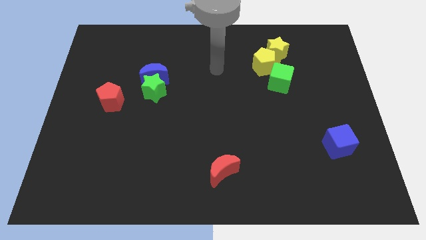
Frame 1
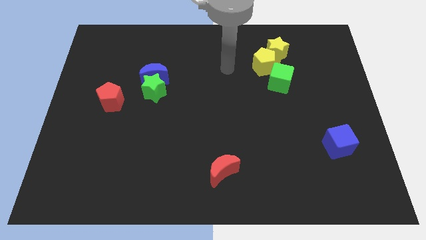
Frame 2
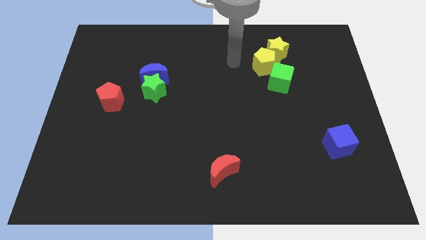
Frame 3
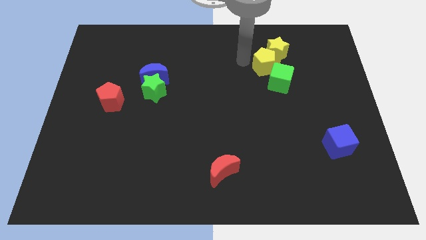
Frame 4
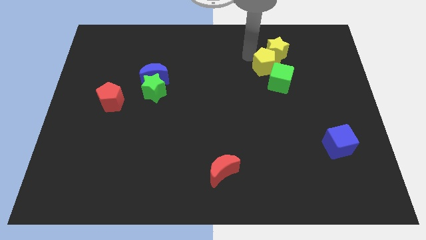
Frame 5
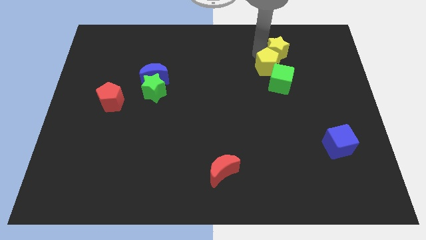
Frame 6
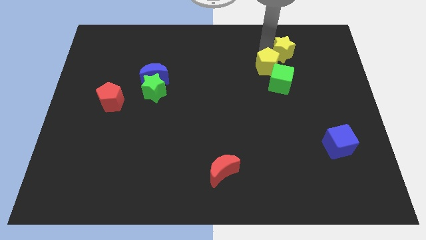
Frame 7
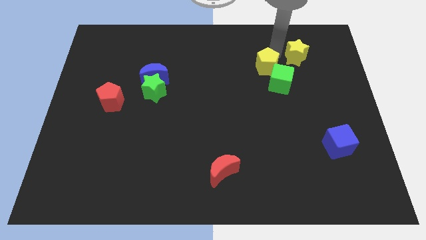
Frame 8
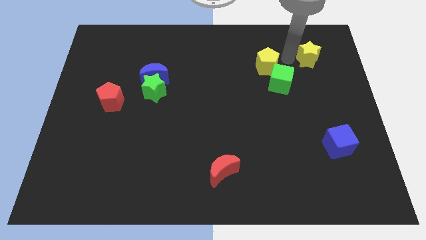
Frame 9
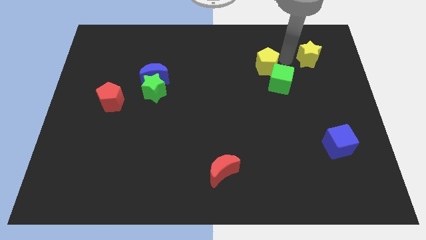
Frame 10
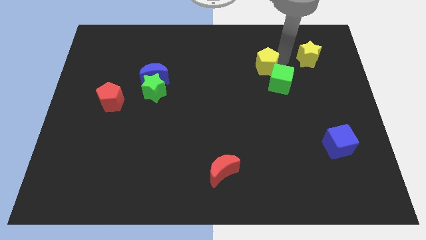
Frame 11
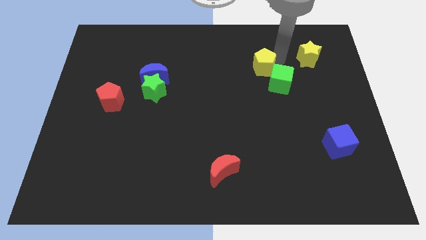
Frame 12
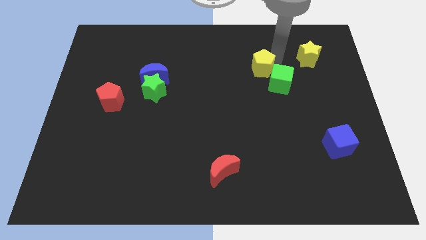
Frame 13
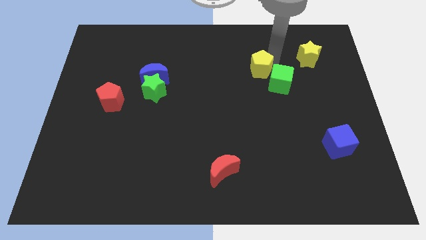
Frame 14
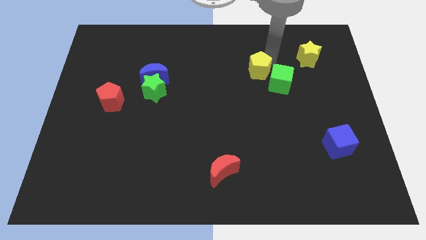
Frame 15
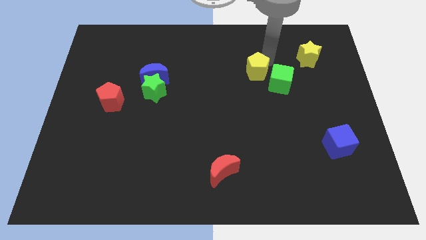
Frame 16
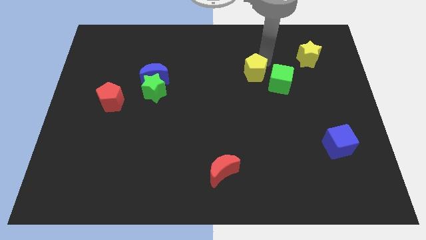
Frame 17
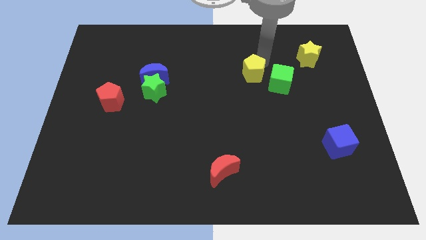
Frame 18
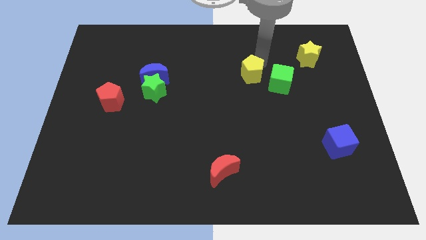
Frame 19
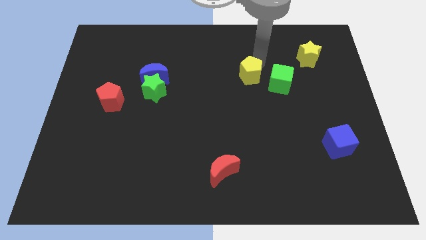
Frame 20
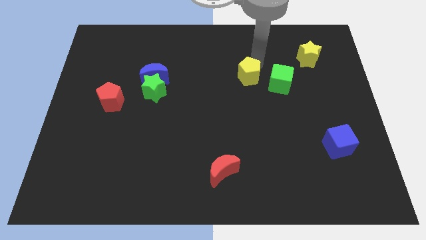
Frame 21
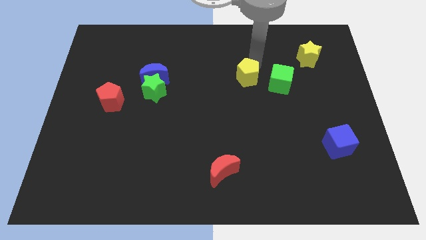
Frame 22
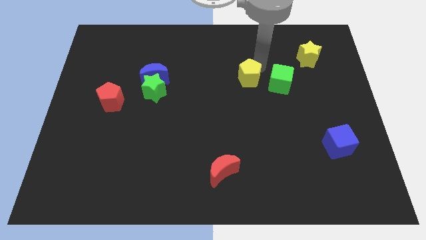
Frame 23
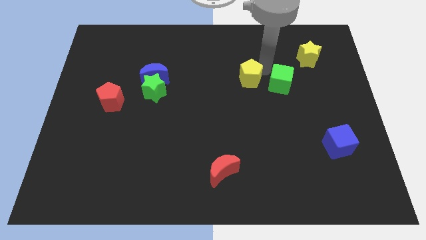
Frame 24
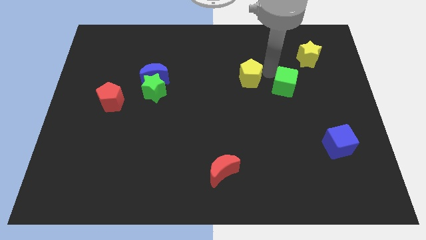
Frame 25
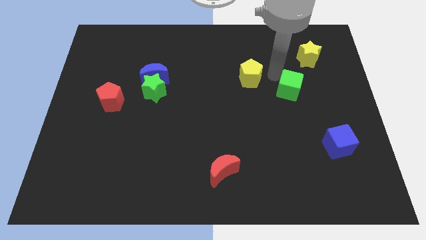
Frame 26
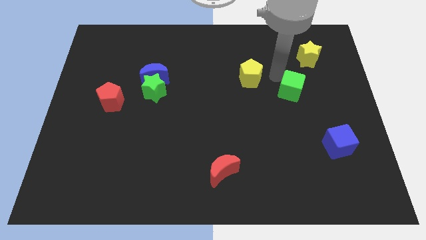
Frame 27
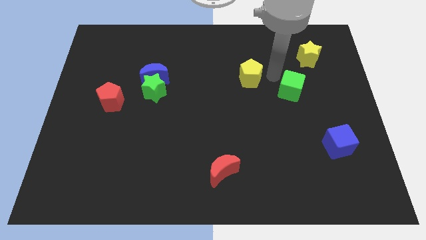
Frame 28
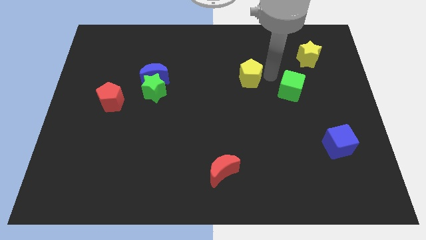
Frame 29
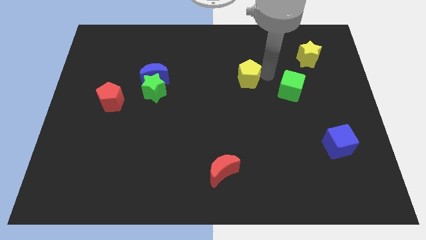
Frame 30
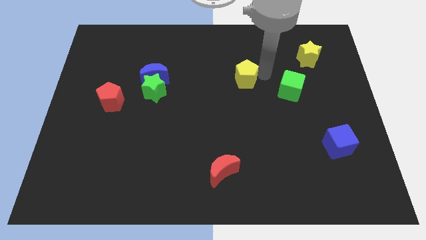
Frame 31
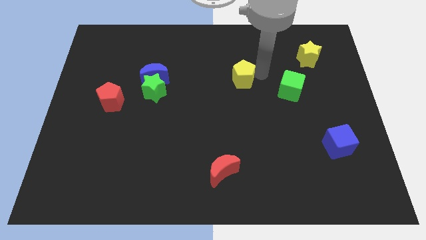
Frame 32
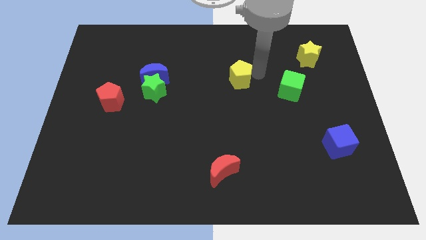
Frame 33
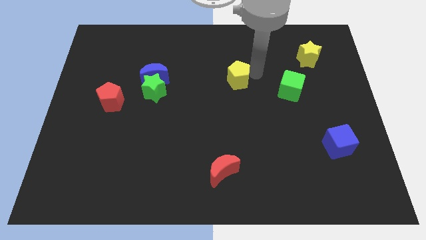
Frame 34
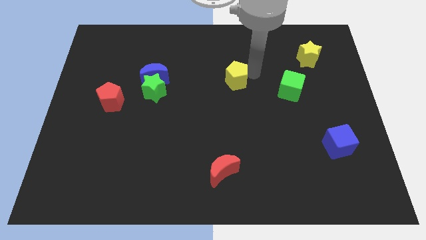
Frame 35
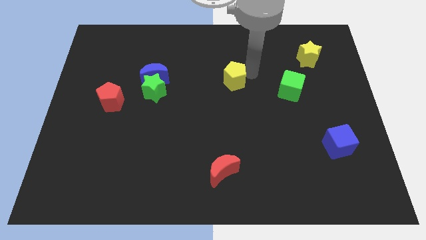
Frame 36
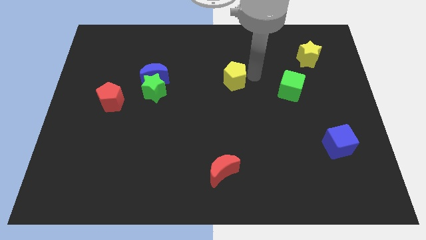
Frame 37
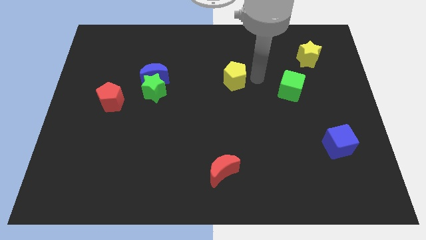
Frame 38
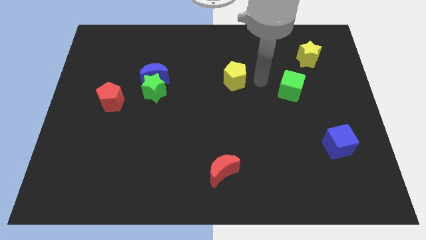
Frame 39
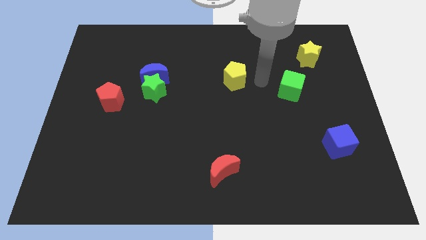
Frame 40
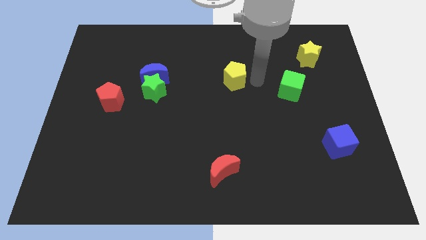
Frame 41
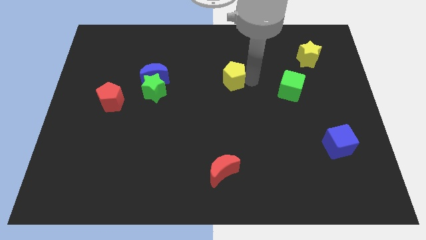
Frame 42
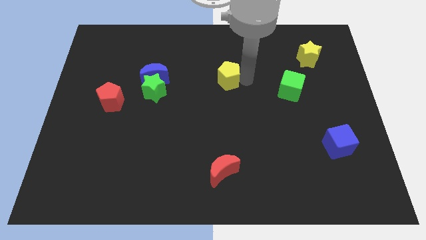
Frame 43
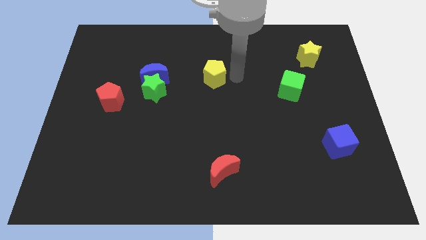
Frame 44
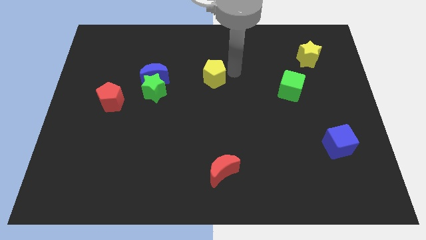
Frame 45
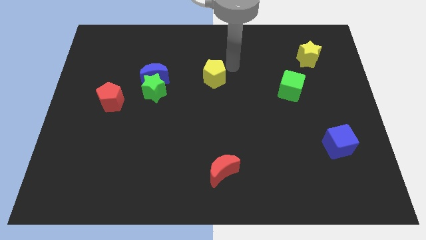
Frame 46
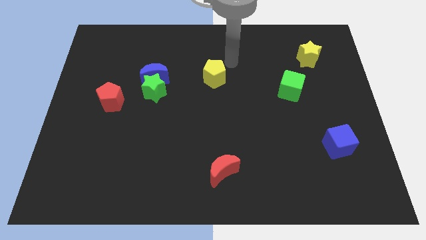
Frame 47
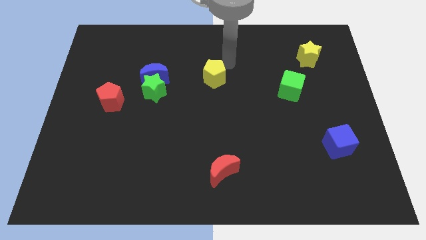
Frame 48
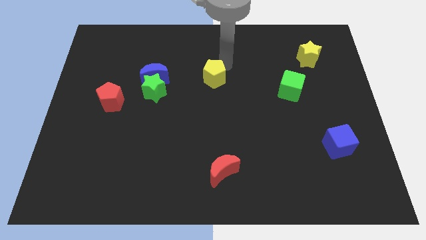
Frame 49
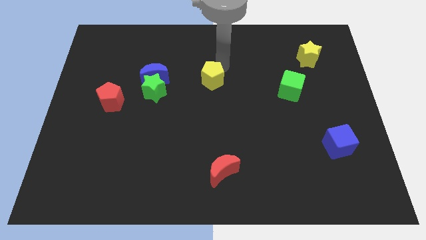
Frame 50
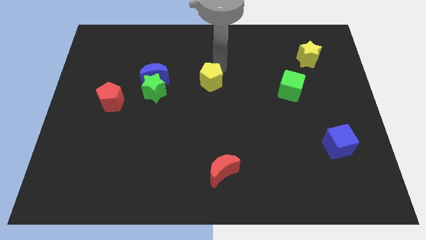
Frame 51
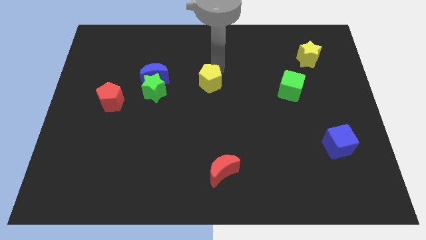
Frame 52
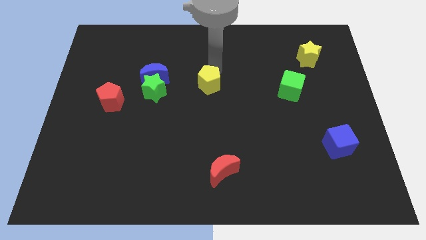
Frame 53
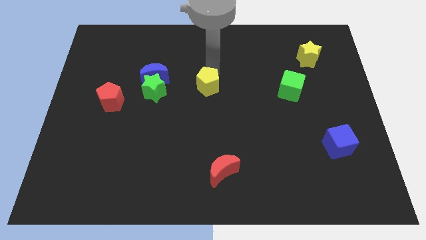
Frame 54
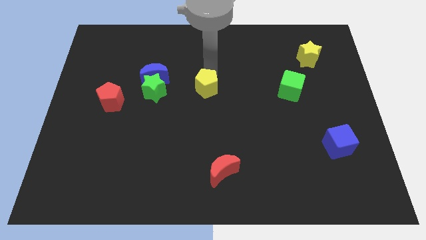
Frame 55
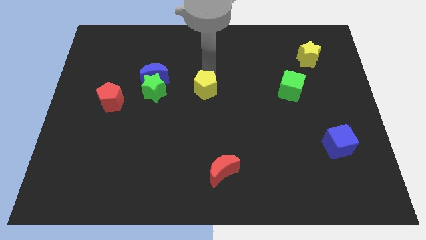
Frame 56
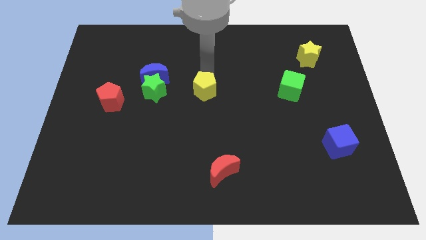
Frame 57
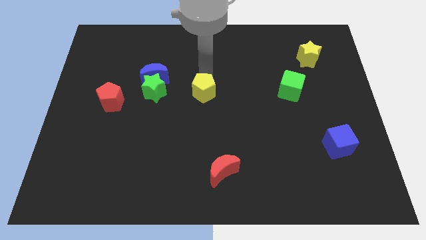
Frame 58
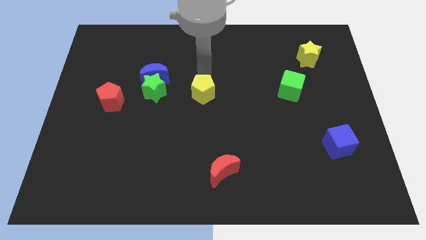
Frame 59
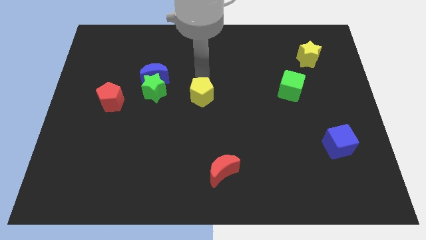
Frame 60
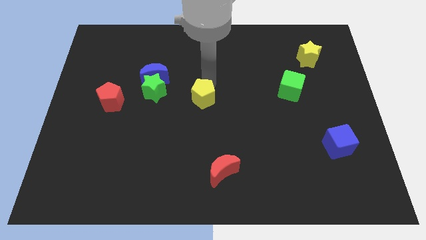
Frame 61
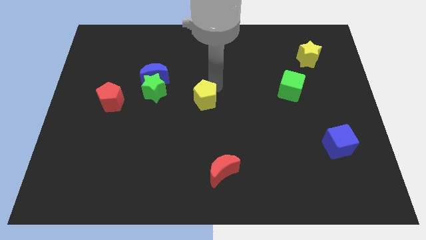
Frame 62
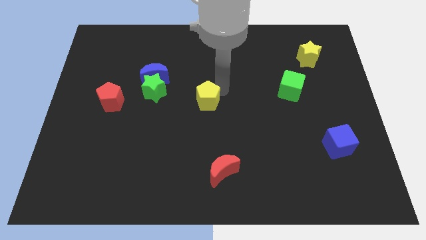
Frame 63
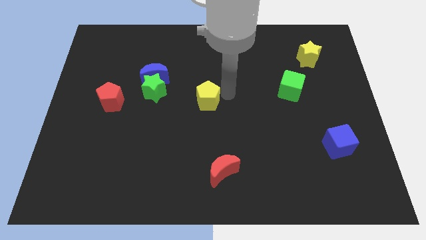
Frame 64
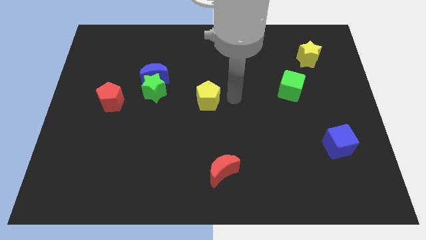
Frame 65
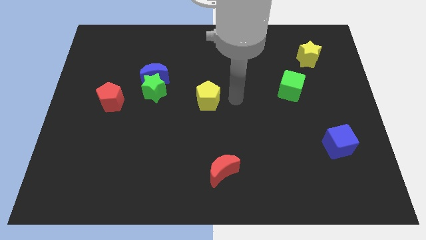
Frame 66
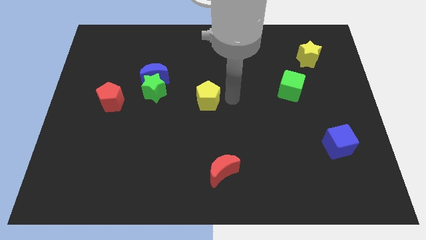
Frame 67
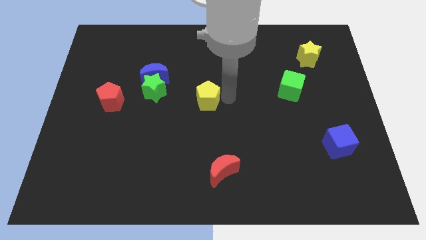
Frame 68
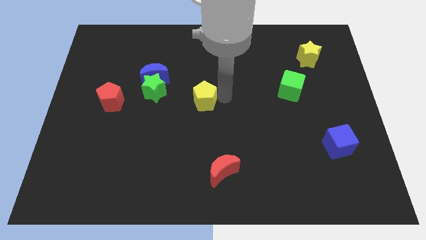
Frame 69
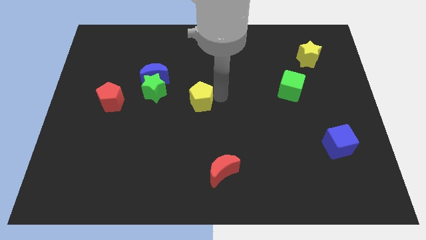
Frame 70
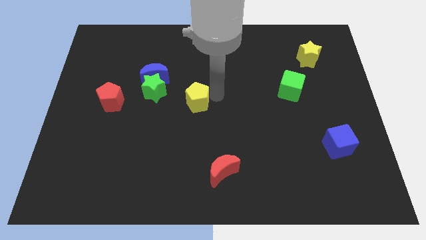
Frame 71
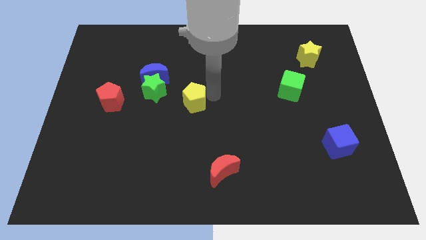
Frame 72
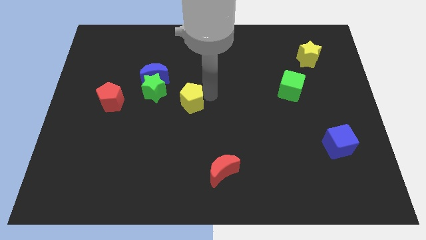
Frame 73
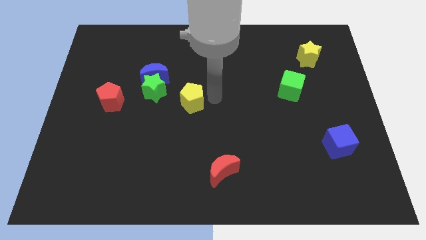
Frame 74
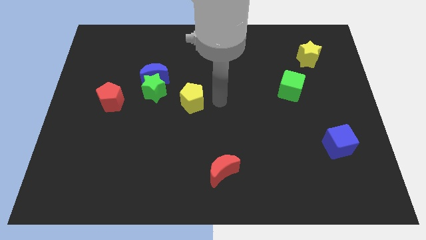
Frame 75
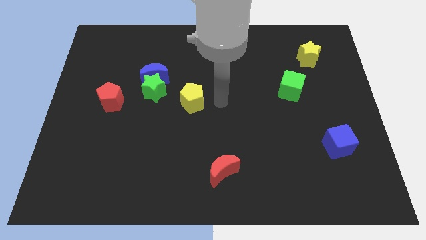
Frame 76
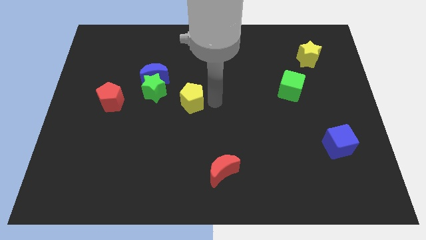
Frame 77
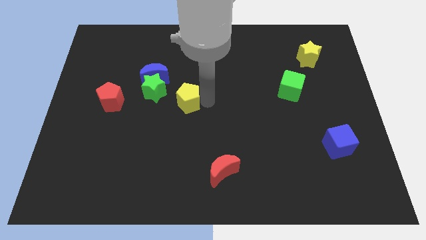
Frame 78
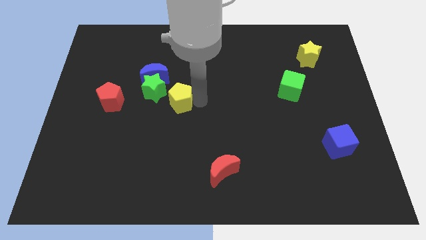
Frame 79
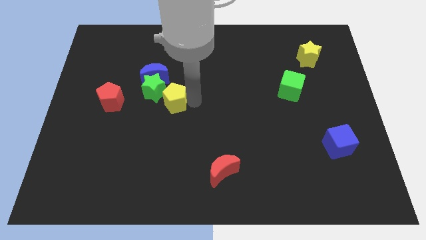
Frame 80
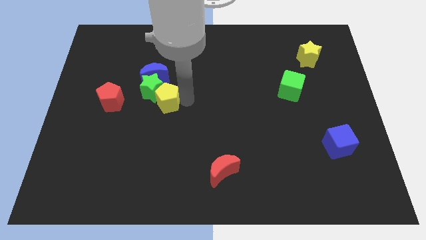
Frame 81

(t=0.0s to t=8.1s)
slide the yellow pentagon to the bottom of the blue moon
